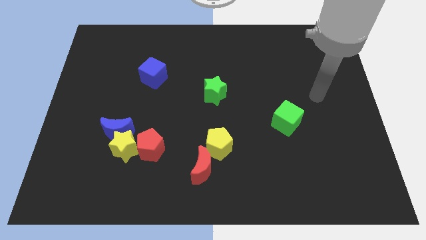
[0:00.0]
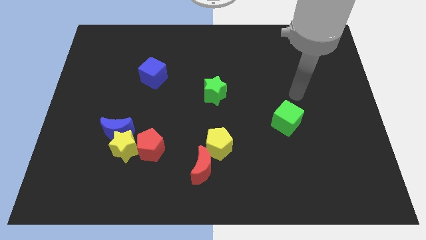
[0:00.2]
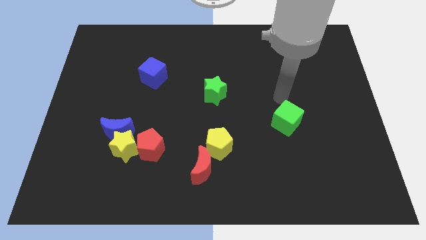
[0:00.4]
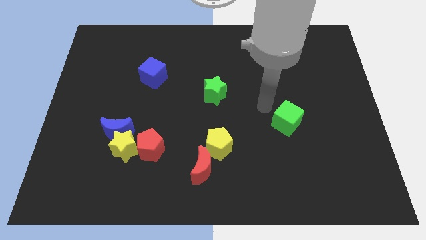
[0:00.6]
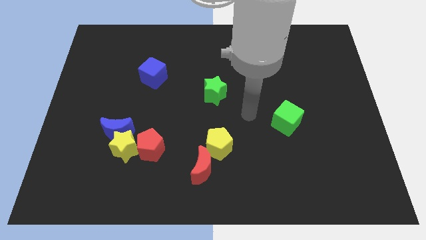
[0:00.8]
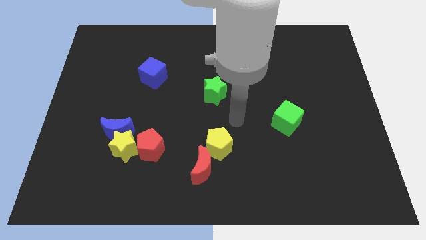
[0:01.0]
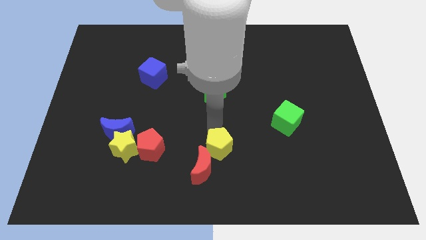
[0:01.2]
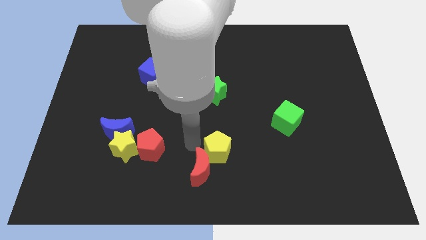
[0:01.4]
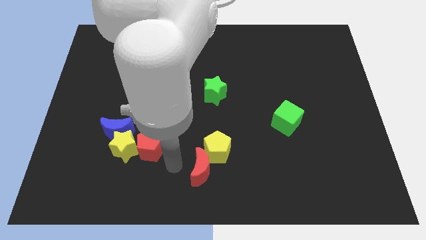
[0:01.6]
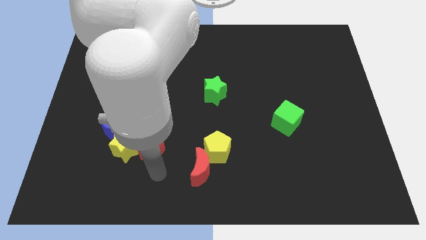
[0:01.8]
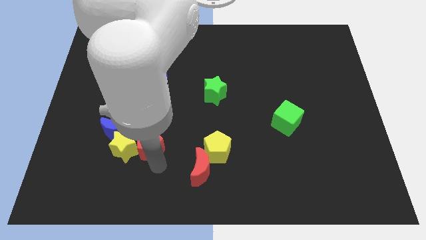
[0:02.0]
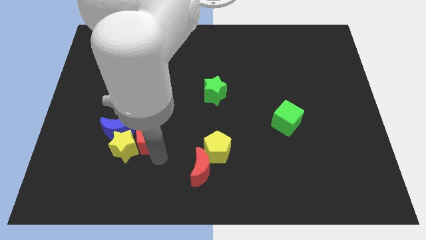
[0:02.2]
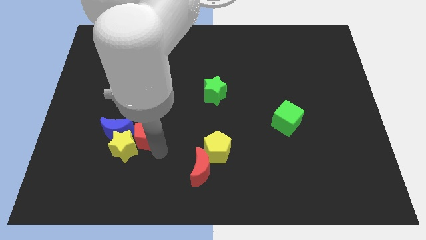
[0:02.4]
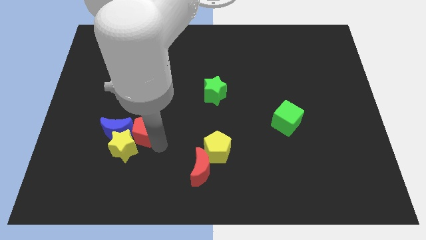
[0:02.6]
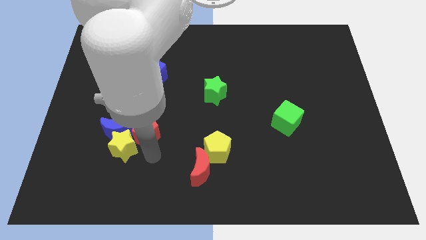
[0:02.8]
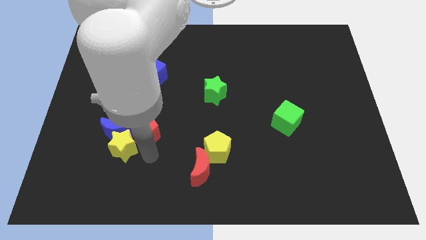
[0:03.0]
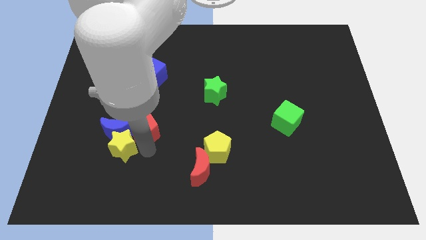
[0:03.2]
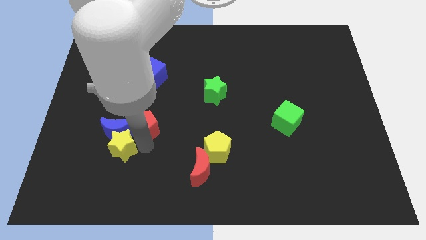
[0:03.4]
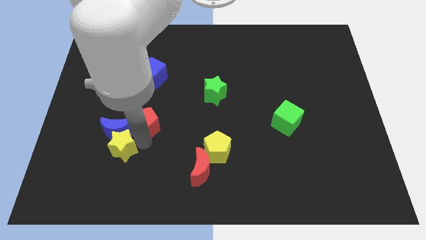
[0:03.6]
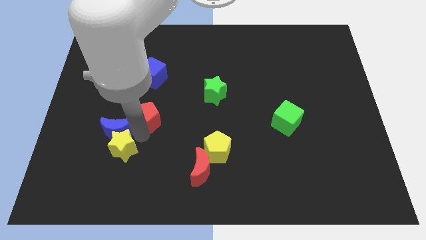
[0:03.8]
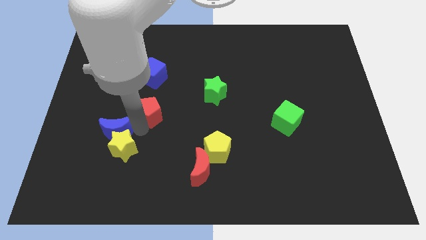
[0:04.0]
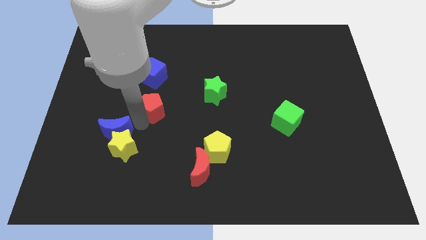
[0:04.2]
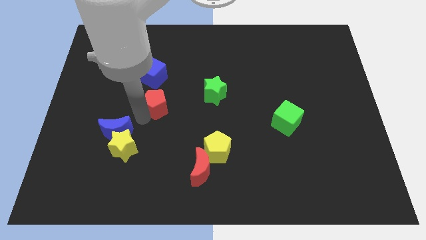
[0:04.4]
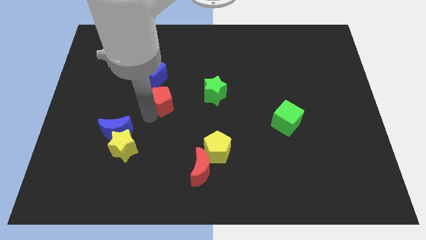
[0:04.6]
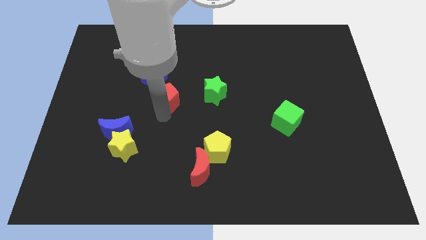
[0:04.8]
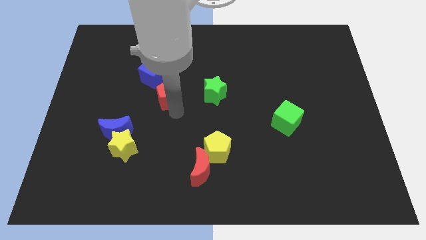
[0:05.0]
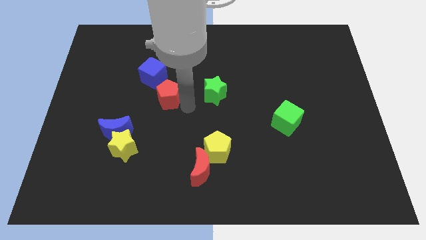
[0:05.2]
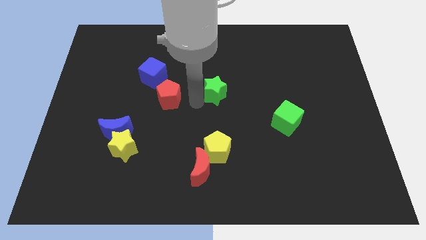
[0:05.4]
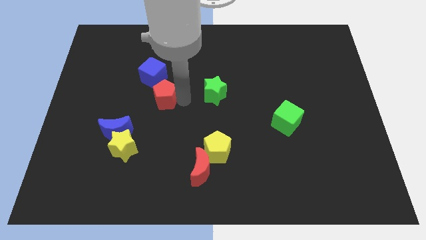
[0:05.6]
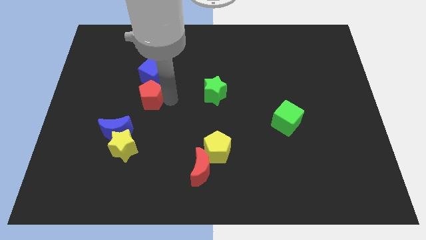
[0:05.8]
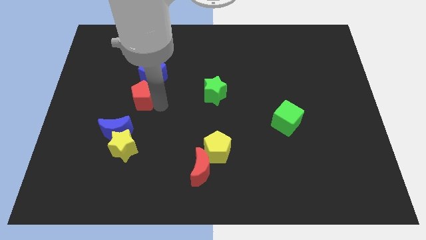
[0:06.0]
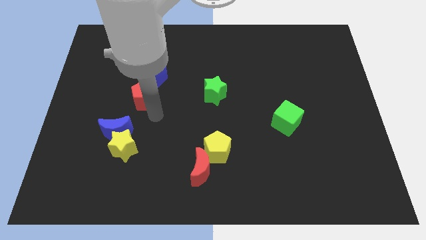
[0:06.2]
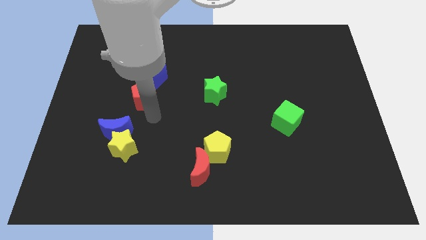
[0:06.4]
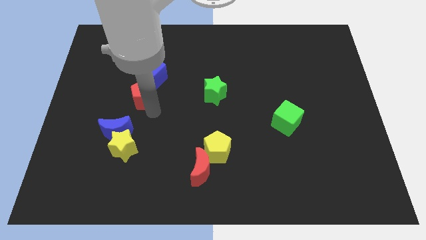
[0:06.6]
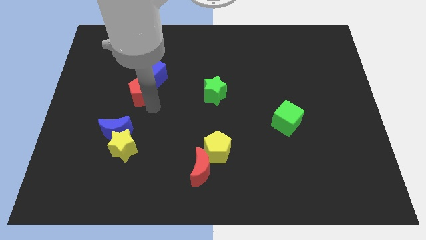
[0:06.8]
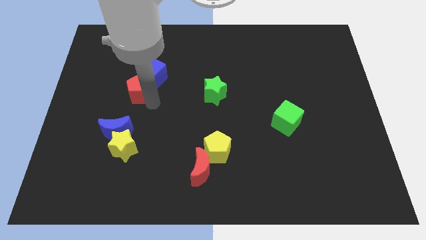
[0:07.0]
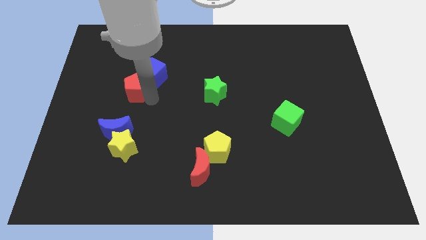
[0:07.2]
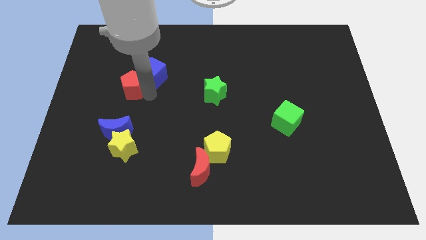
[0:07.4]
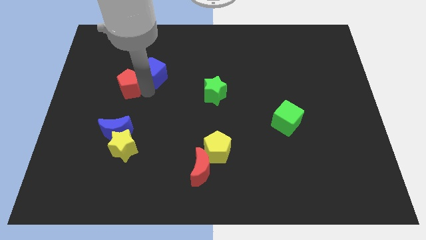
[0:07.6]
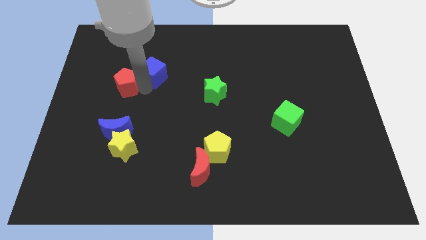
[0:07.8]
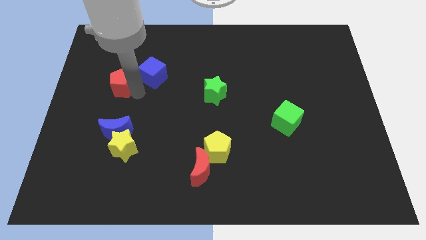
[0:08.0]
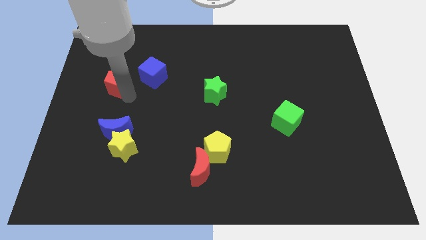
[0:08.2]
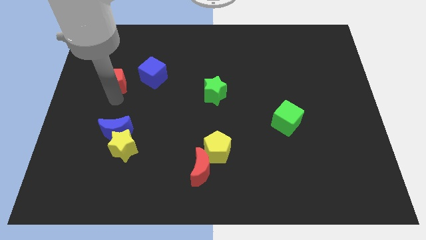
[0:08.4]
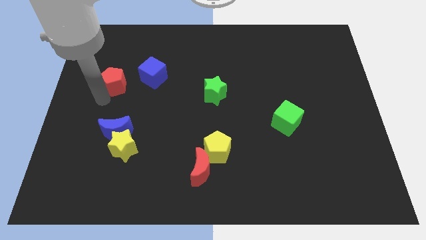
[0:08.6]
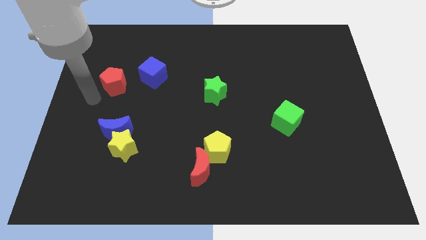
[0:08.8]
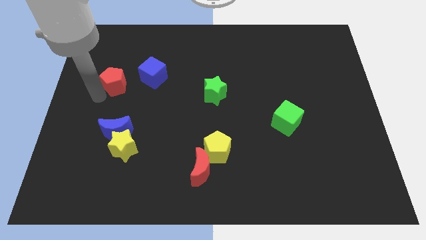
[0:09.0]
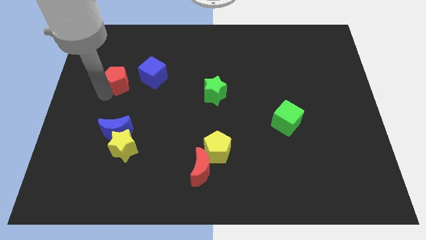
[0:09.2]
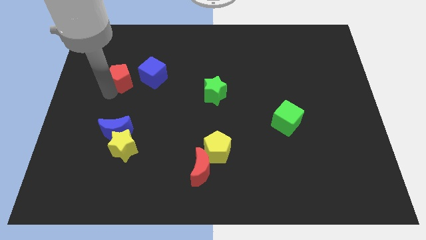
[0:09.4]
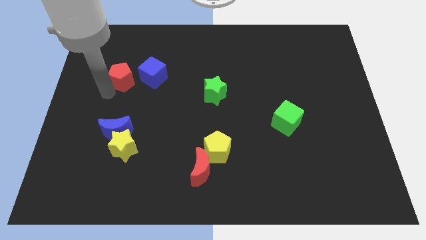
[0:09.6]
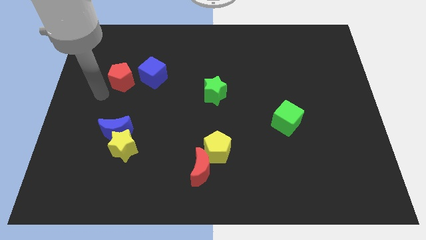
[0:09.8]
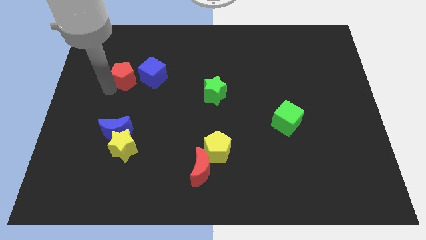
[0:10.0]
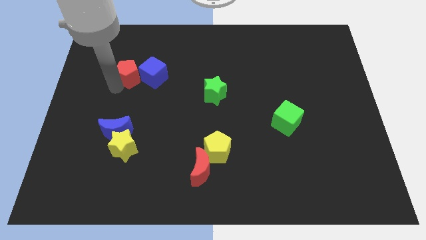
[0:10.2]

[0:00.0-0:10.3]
put the red pentagon to the top left of the blue cube

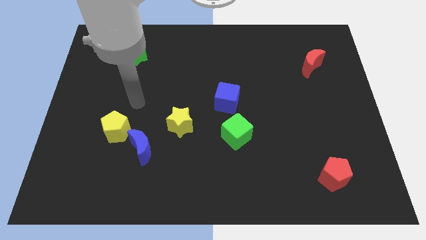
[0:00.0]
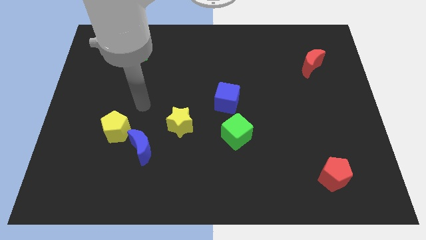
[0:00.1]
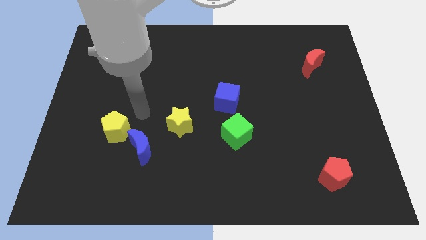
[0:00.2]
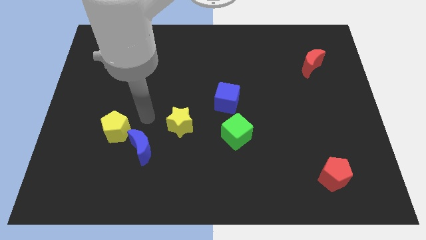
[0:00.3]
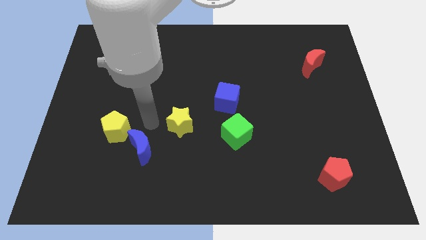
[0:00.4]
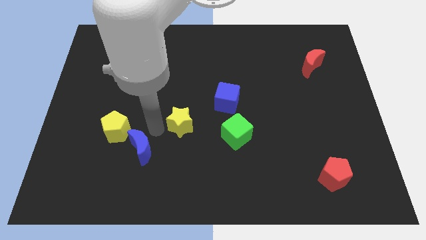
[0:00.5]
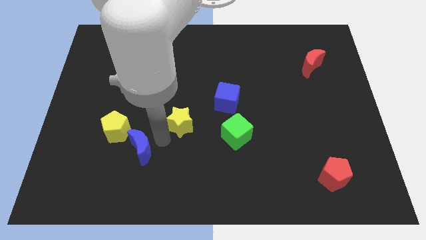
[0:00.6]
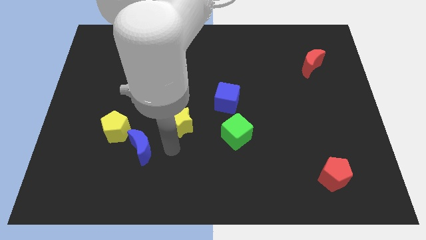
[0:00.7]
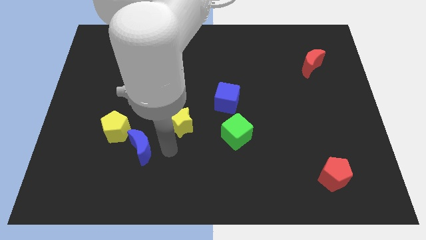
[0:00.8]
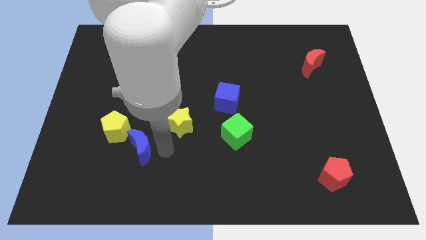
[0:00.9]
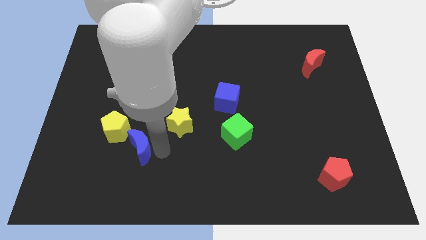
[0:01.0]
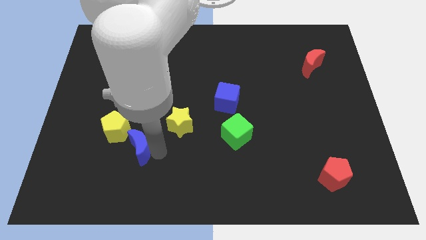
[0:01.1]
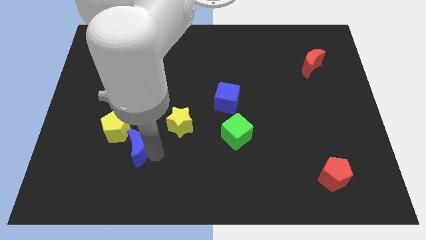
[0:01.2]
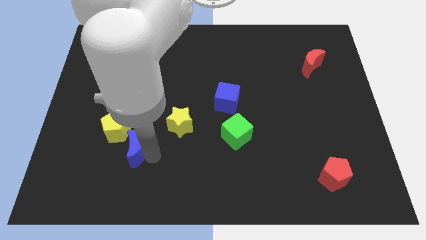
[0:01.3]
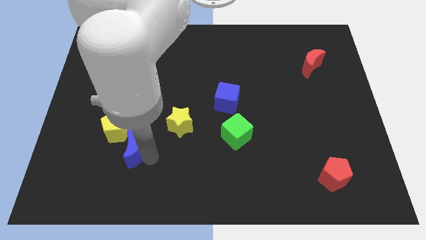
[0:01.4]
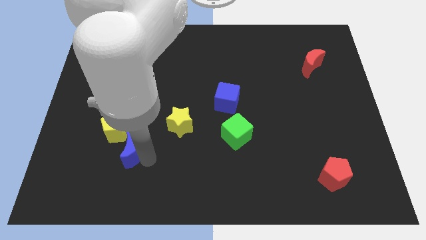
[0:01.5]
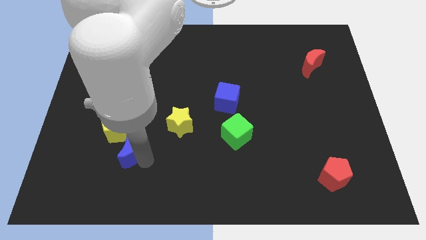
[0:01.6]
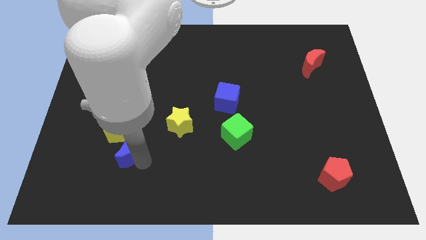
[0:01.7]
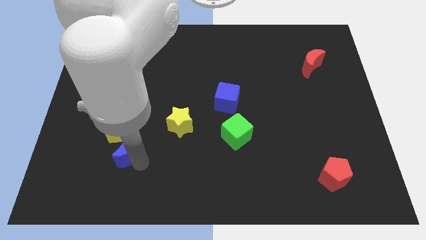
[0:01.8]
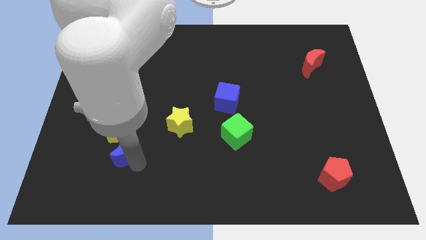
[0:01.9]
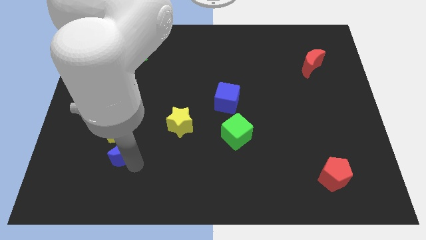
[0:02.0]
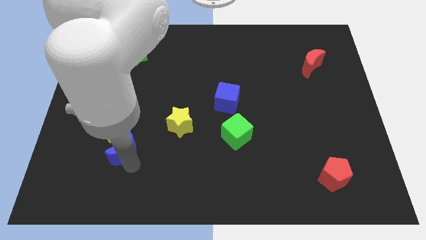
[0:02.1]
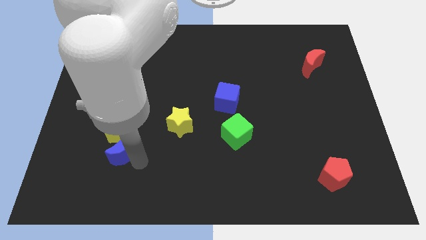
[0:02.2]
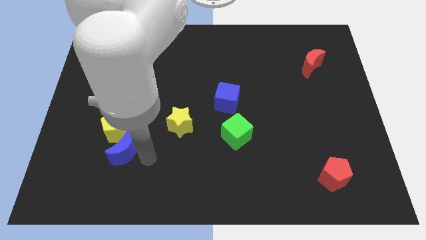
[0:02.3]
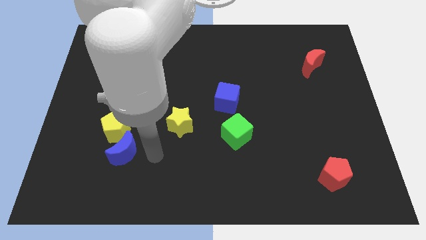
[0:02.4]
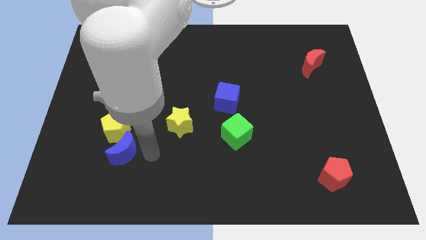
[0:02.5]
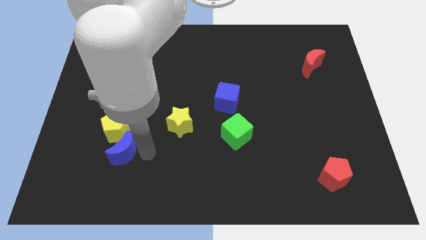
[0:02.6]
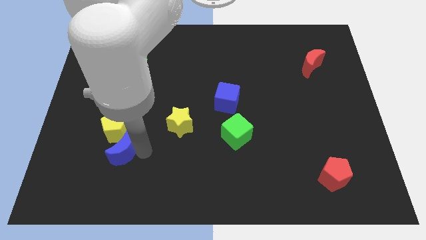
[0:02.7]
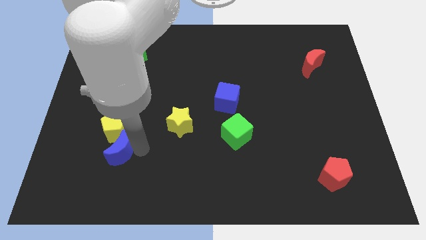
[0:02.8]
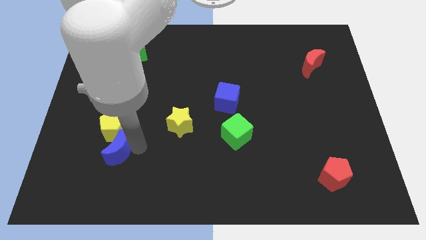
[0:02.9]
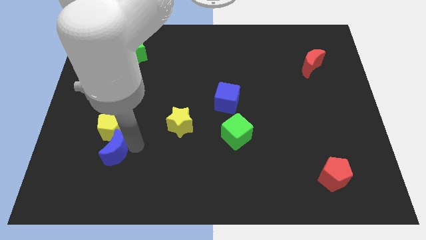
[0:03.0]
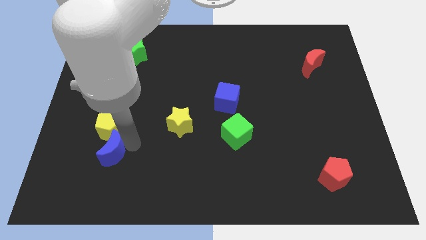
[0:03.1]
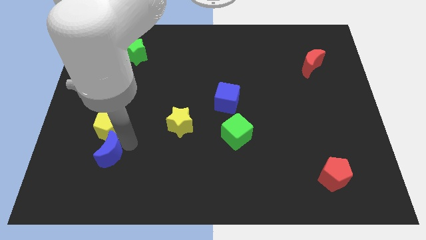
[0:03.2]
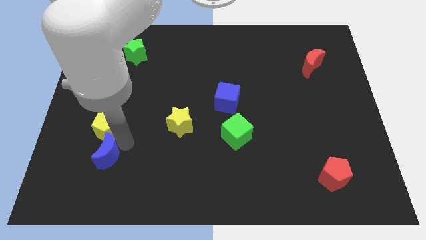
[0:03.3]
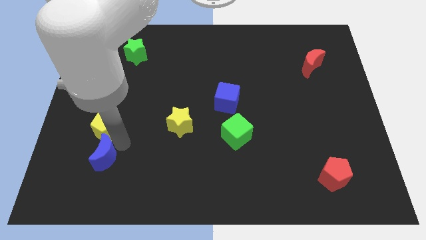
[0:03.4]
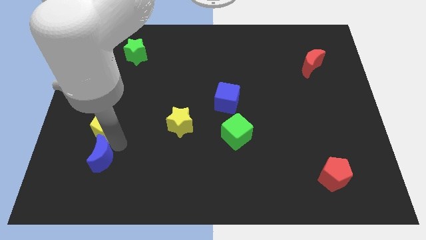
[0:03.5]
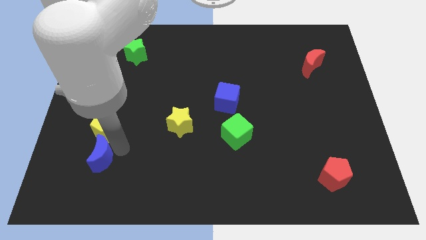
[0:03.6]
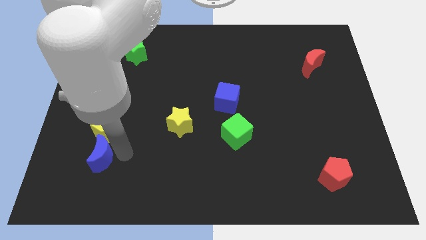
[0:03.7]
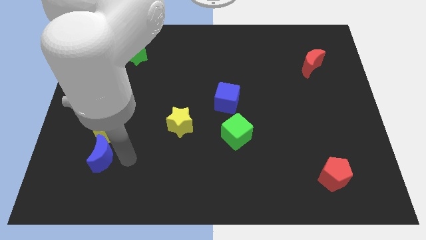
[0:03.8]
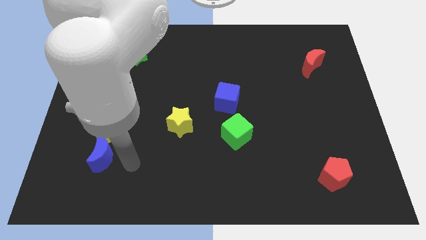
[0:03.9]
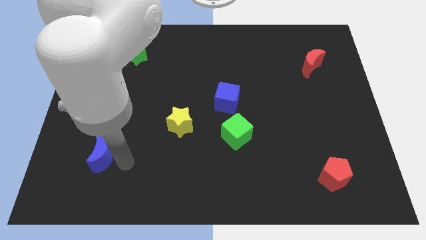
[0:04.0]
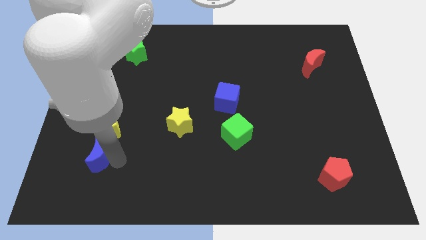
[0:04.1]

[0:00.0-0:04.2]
slide the blue moon to the bottom left of the yellow pentagon
